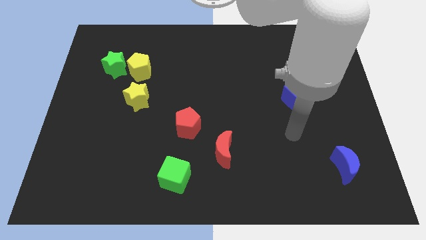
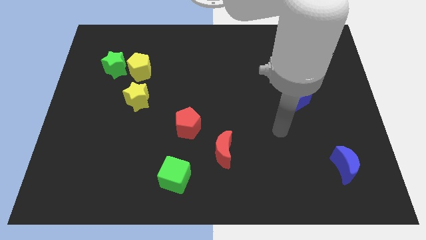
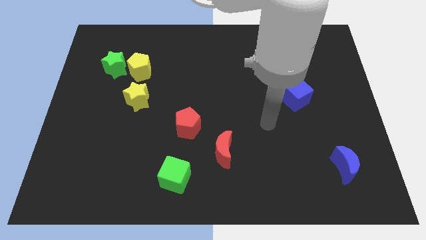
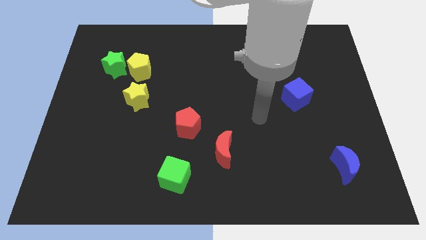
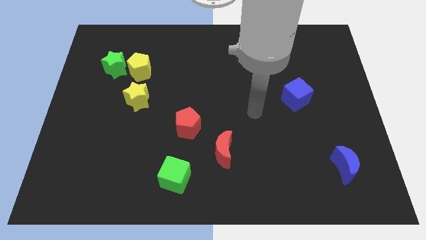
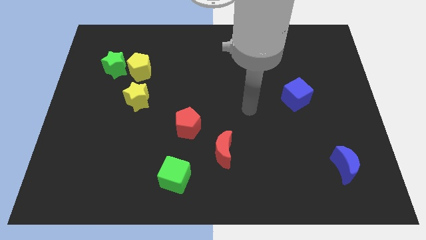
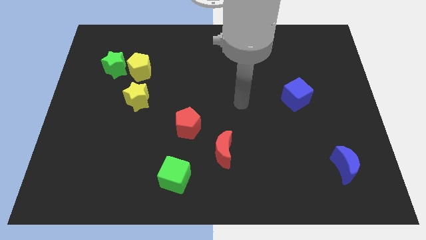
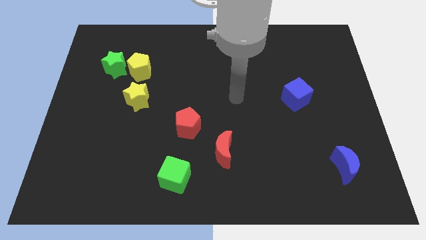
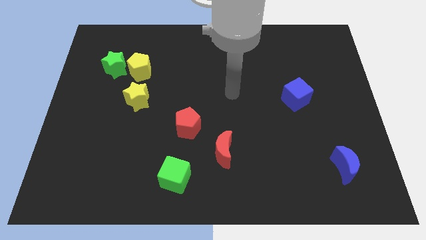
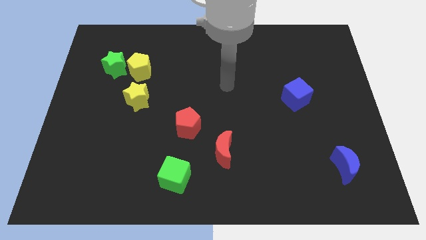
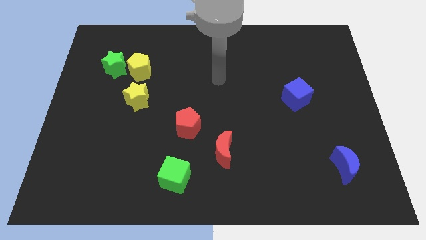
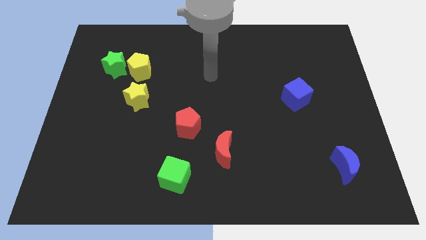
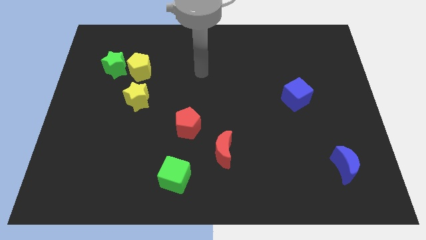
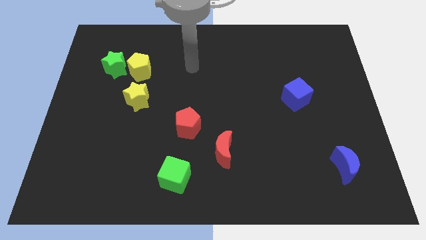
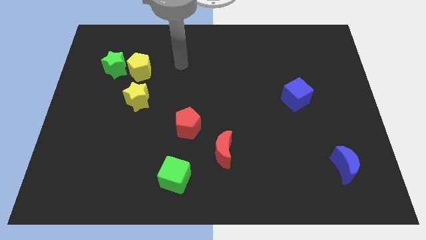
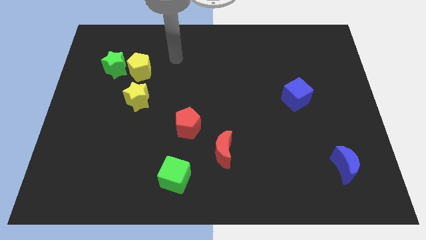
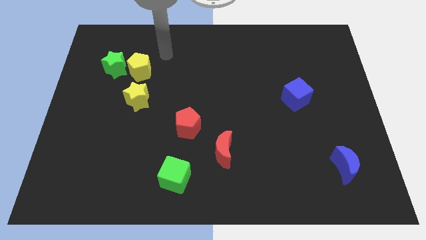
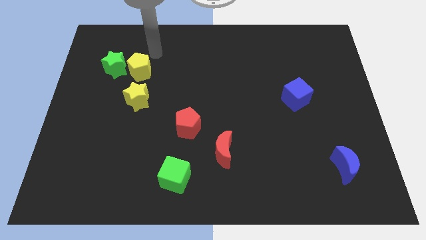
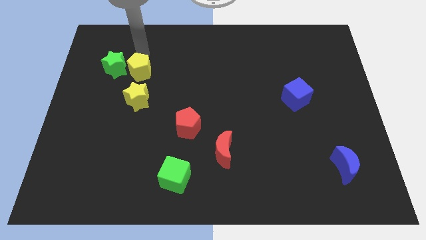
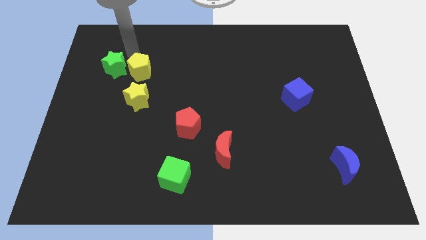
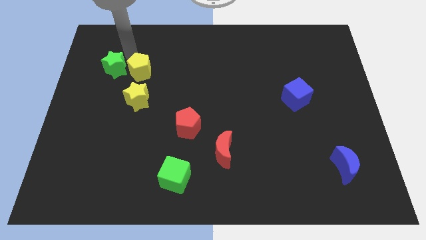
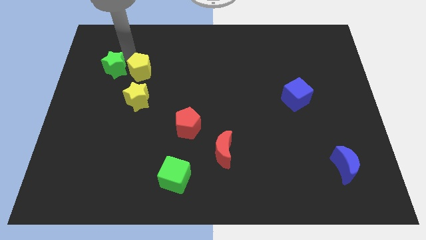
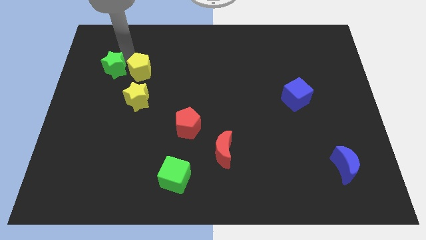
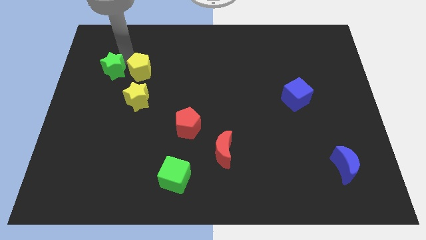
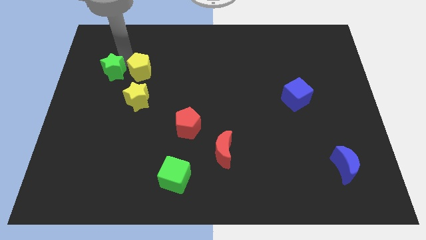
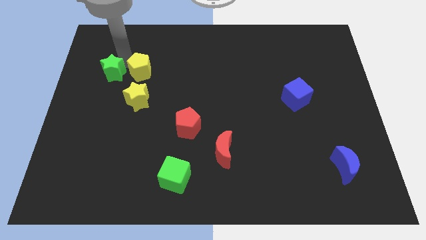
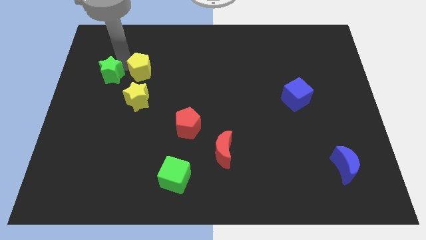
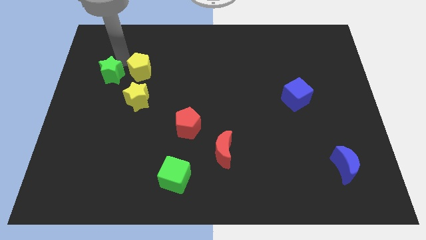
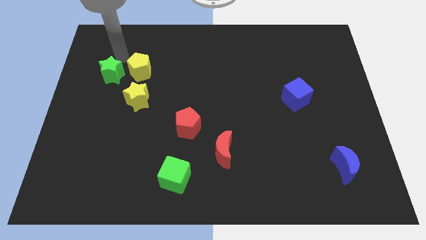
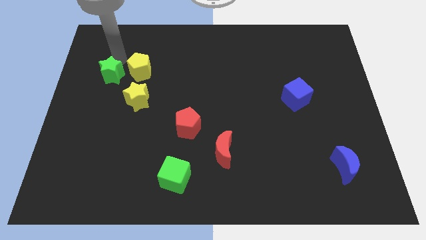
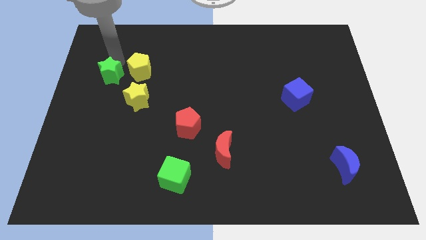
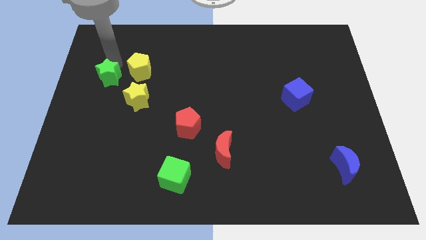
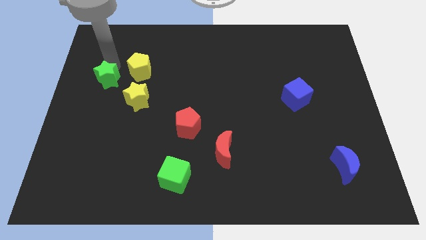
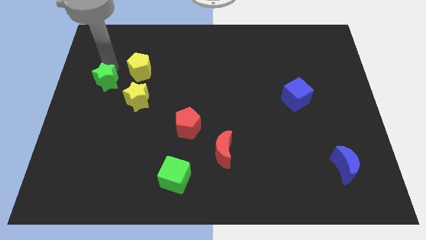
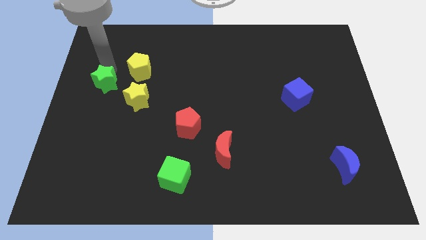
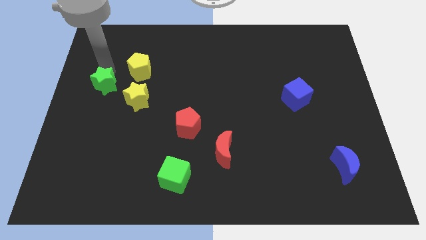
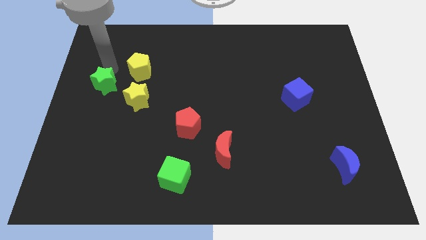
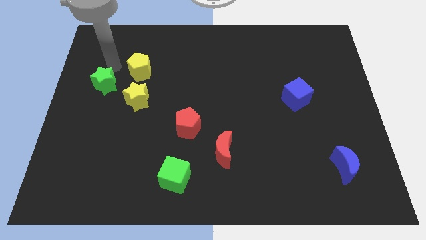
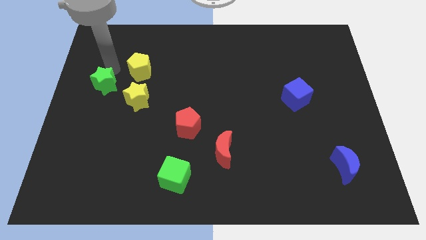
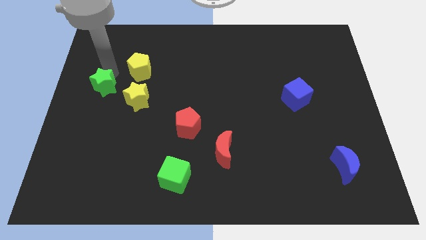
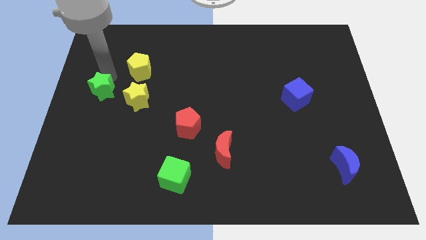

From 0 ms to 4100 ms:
push the green star down somewhat

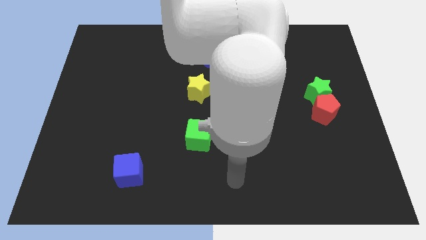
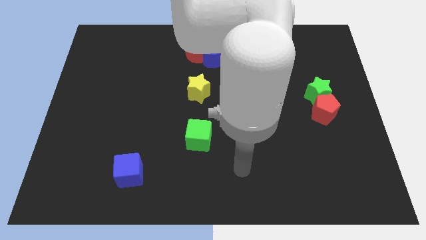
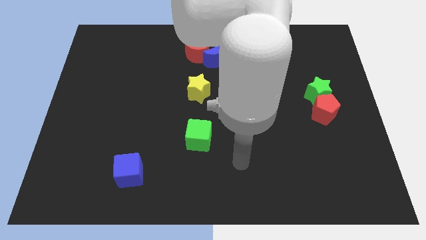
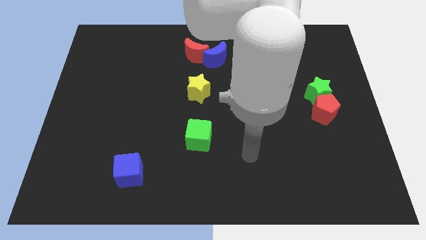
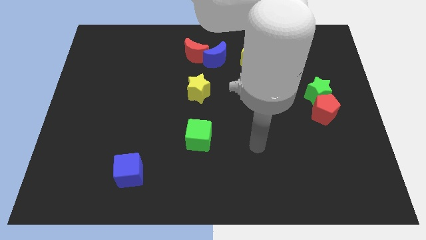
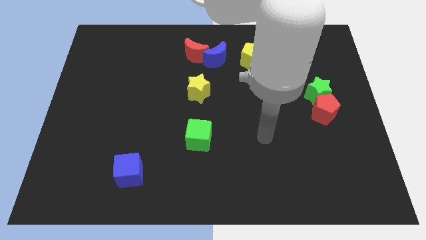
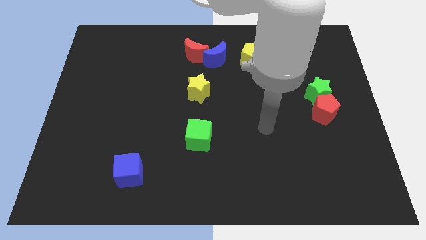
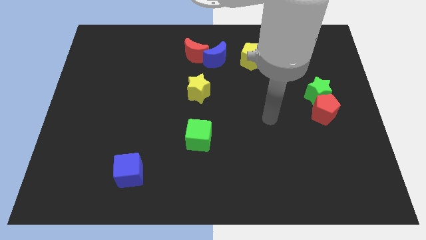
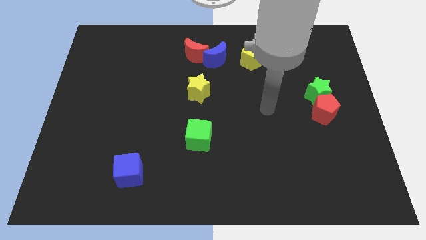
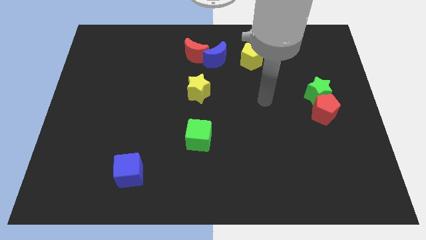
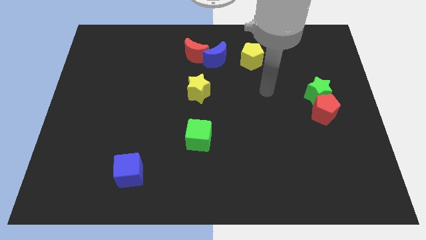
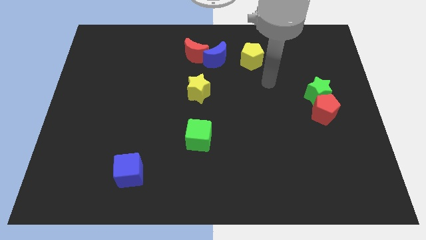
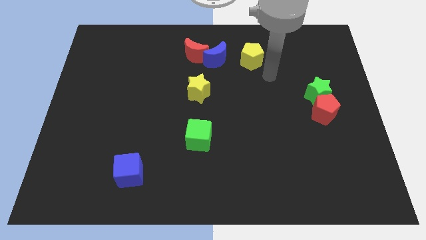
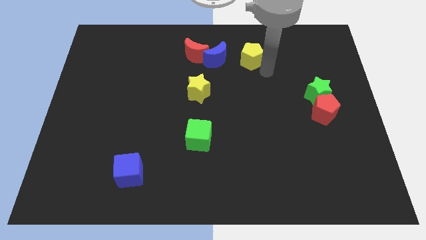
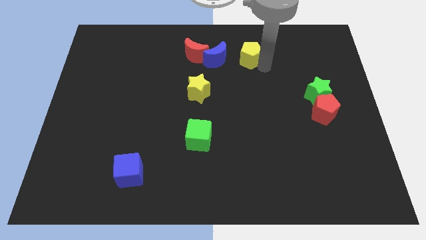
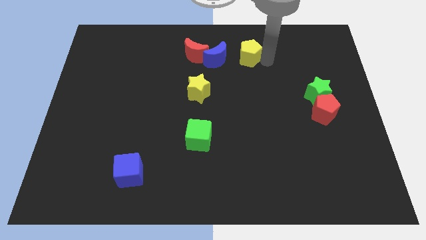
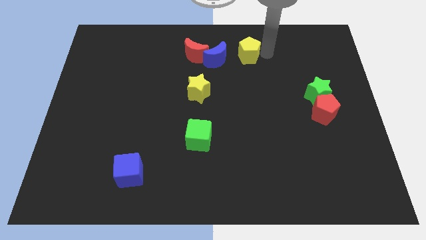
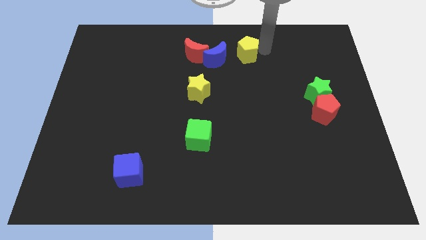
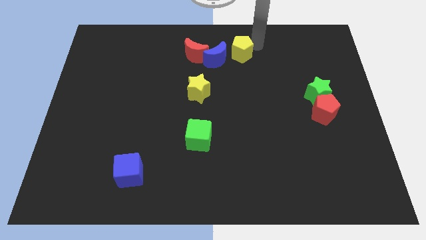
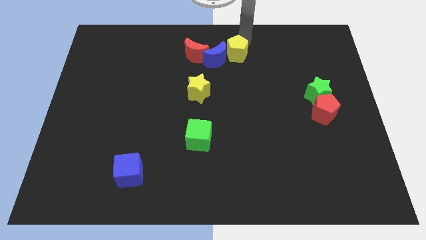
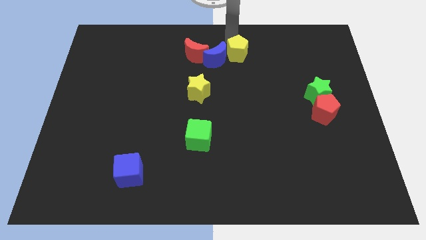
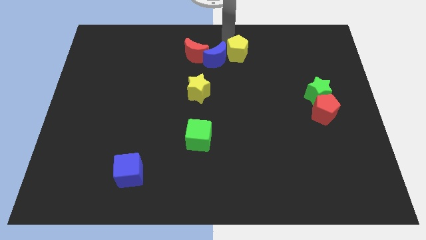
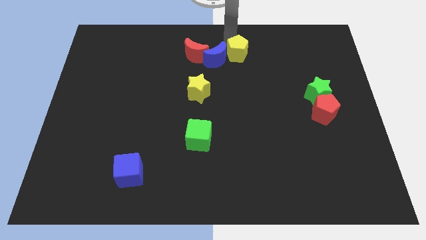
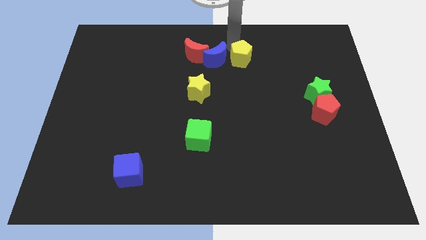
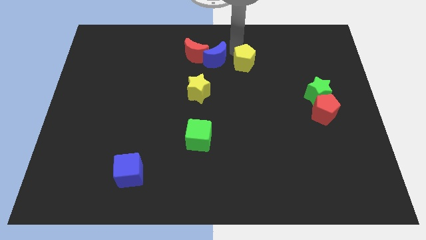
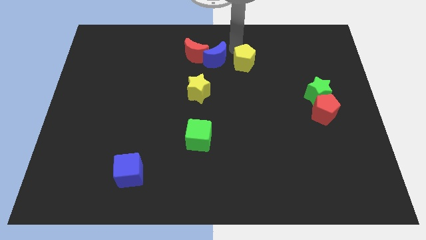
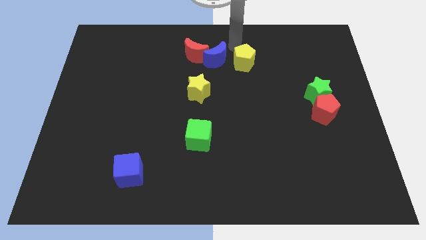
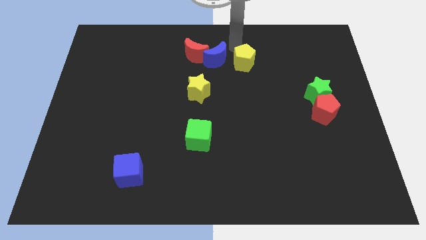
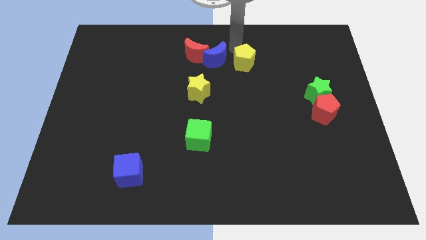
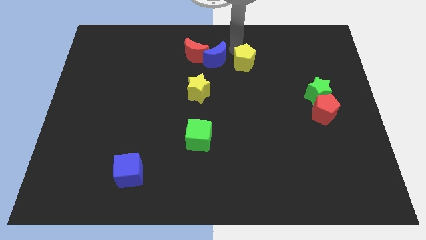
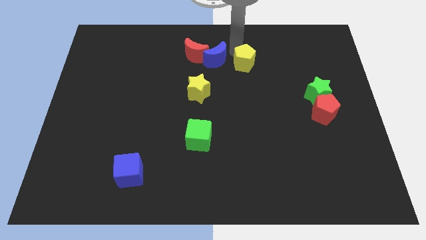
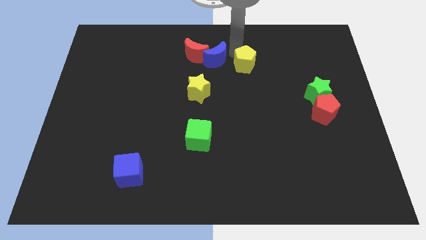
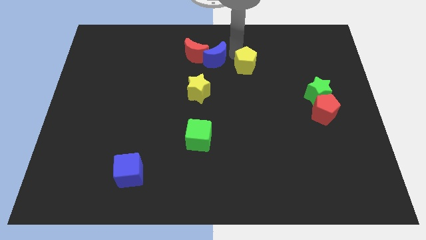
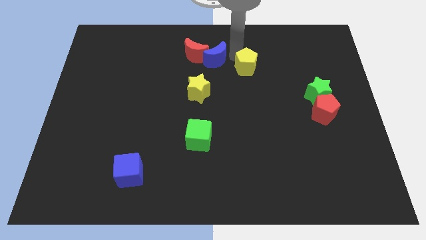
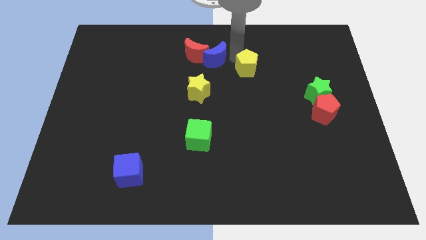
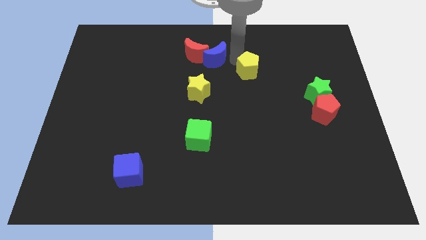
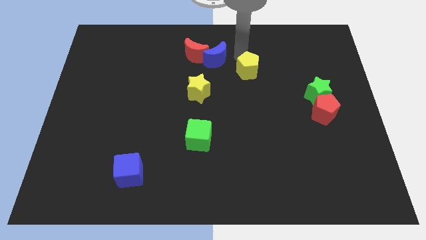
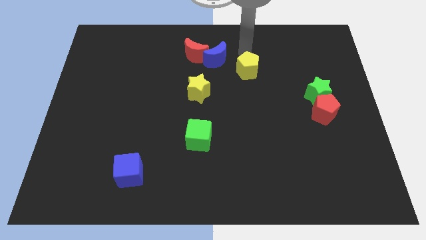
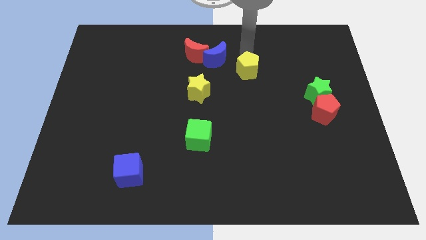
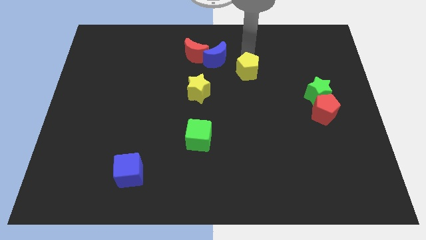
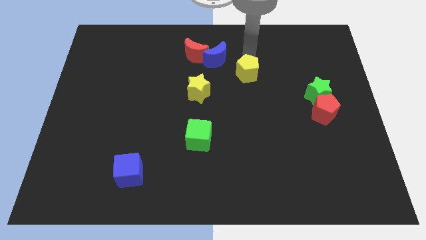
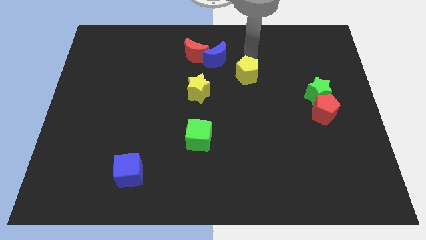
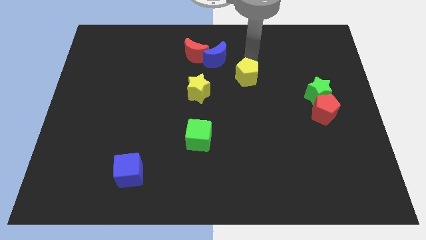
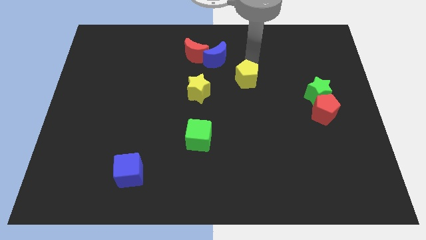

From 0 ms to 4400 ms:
move the yellow pentagon downwards a bit
